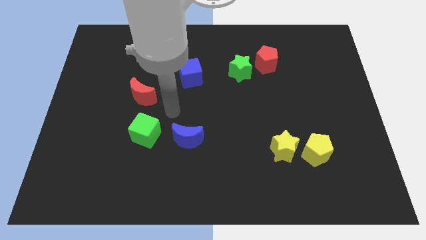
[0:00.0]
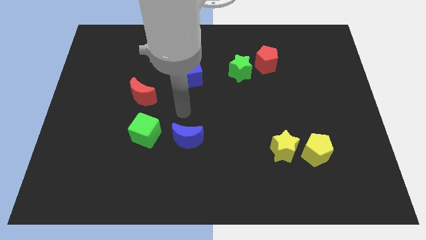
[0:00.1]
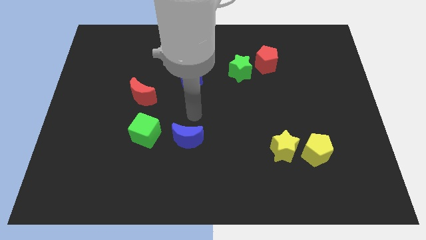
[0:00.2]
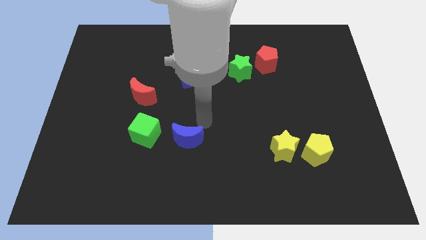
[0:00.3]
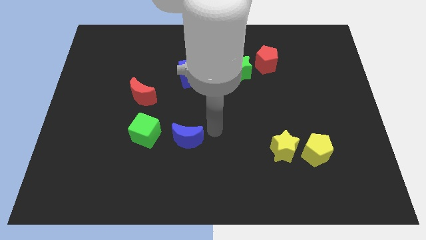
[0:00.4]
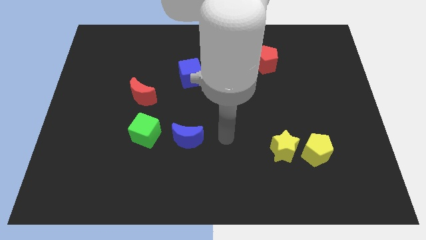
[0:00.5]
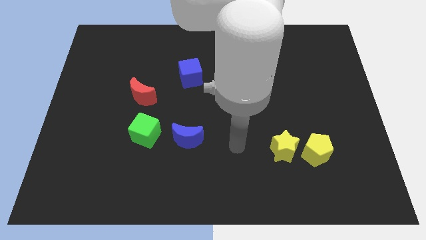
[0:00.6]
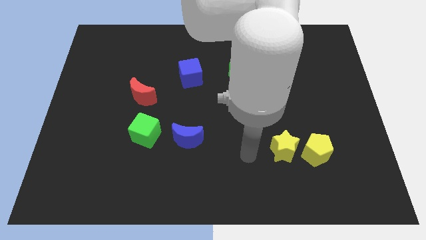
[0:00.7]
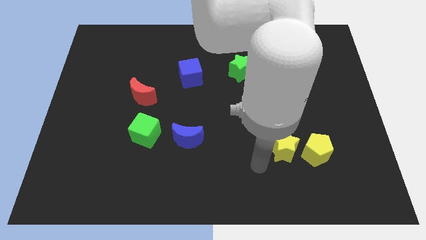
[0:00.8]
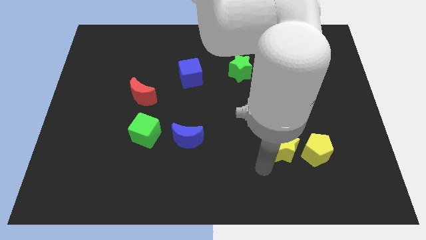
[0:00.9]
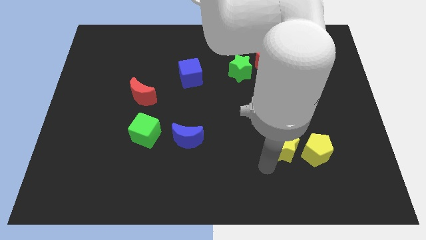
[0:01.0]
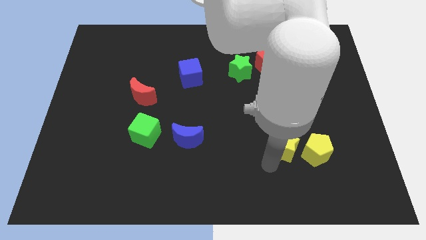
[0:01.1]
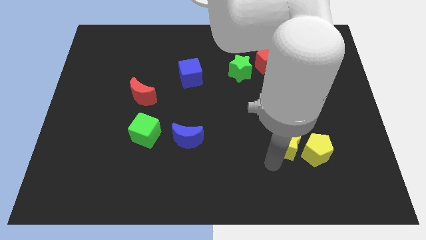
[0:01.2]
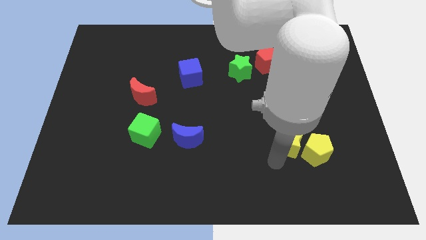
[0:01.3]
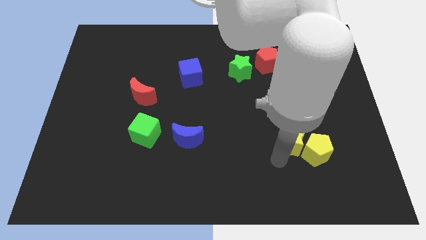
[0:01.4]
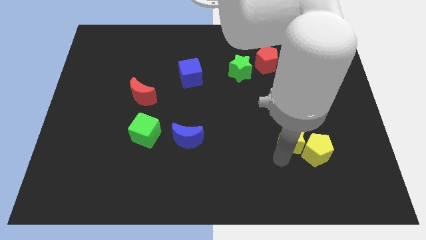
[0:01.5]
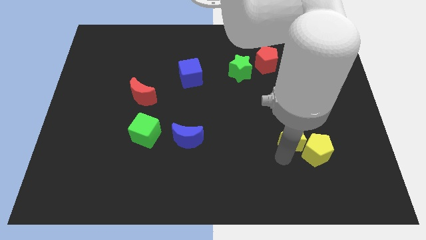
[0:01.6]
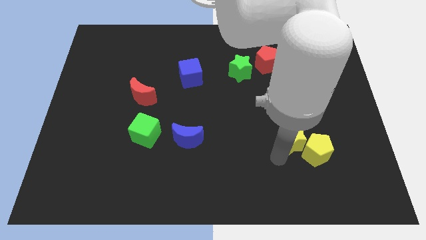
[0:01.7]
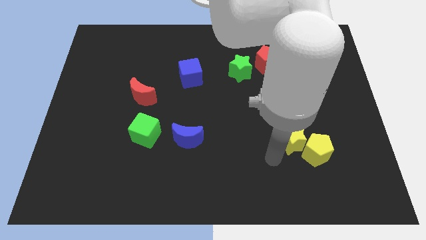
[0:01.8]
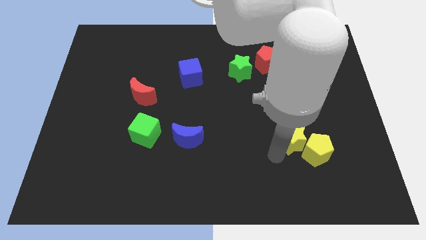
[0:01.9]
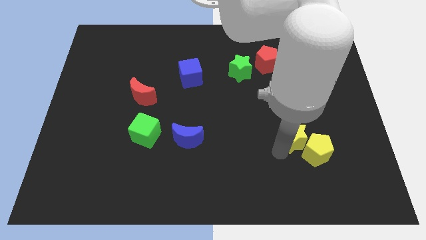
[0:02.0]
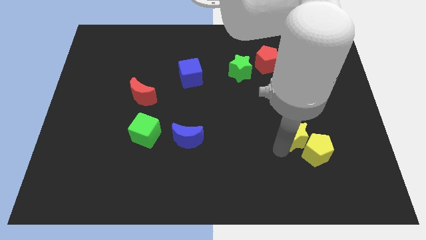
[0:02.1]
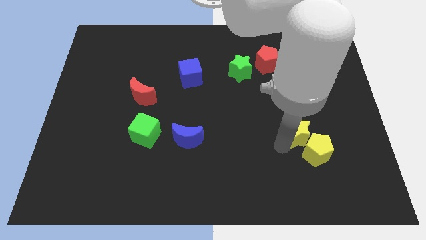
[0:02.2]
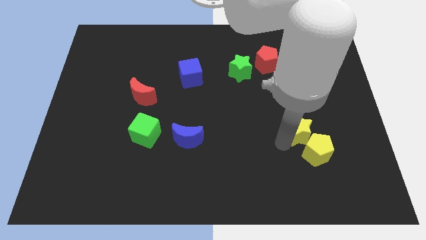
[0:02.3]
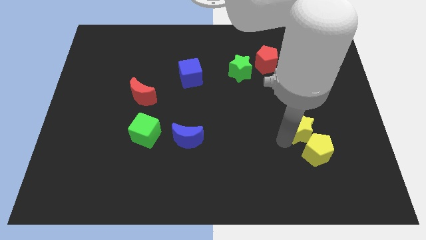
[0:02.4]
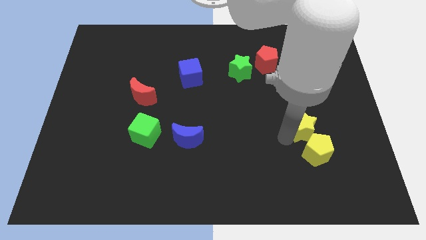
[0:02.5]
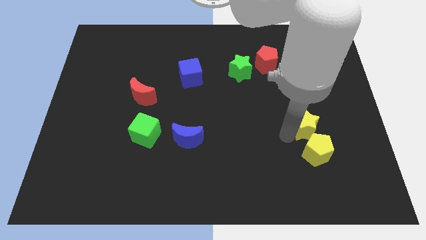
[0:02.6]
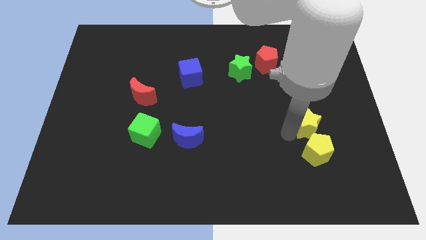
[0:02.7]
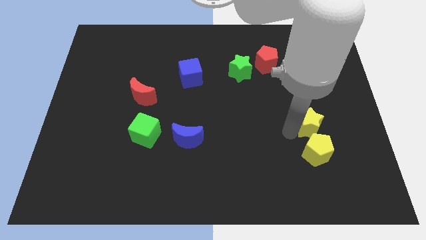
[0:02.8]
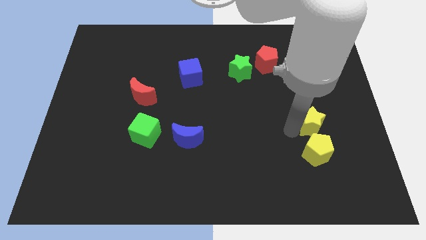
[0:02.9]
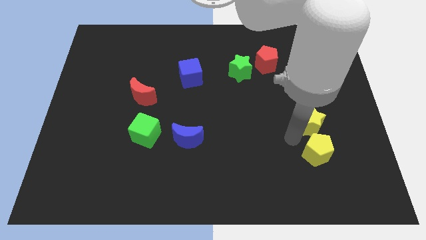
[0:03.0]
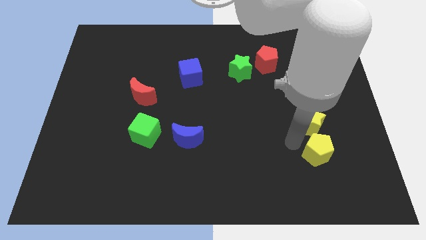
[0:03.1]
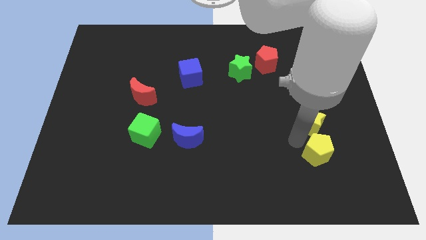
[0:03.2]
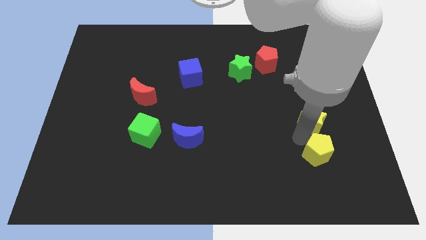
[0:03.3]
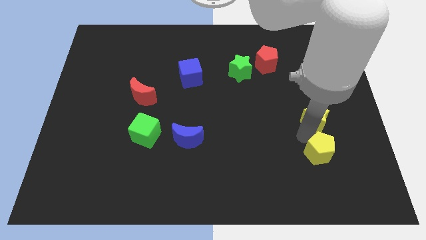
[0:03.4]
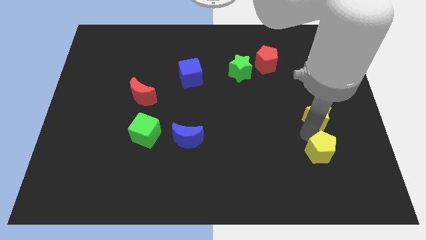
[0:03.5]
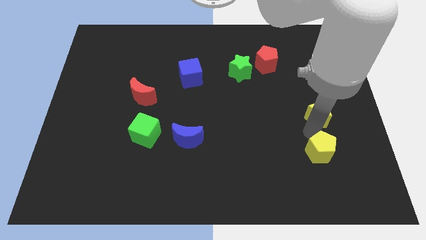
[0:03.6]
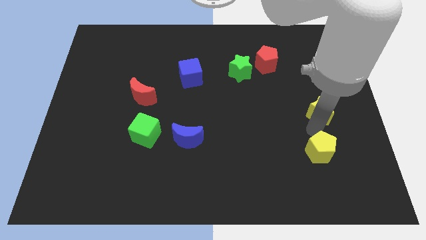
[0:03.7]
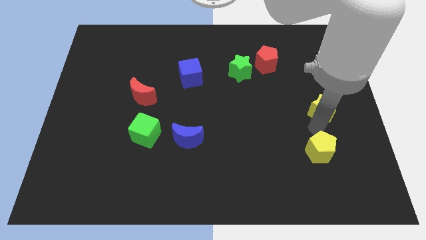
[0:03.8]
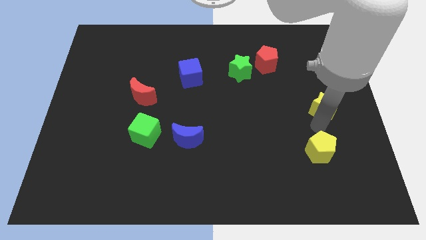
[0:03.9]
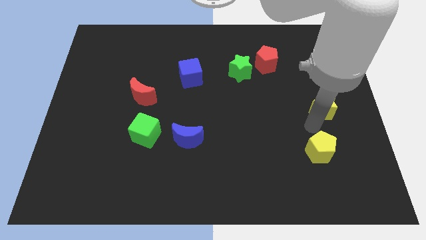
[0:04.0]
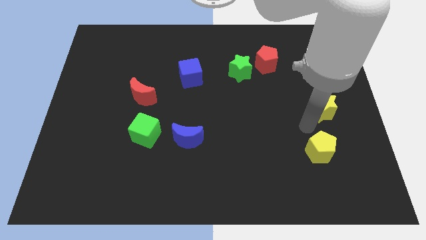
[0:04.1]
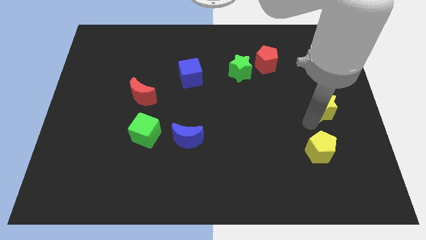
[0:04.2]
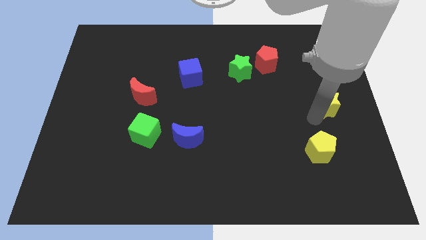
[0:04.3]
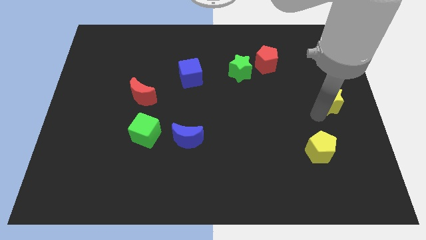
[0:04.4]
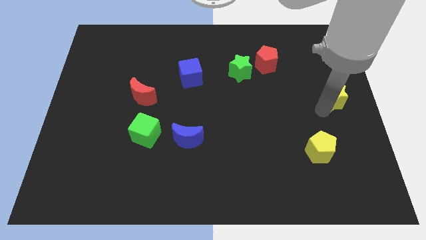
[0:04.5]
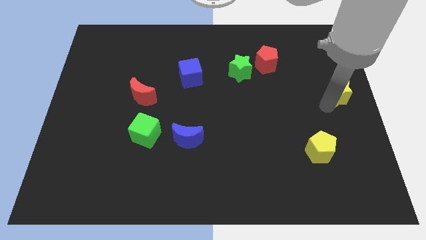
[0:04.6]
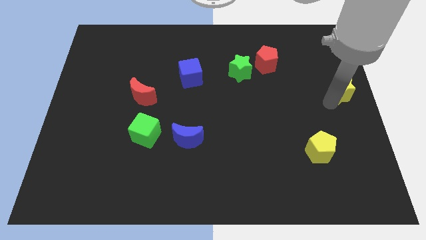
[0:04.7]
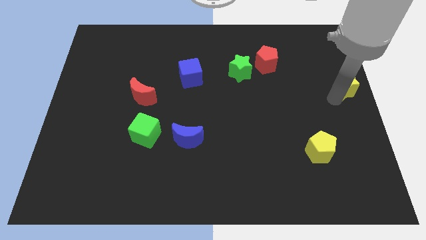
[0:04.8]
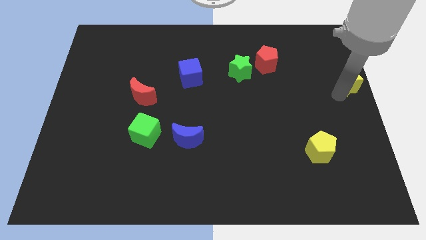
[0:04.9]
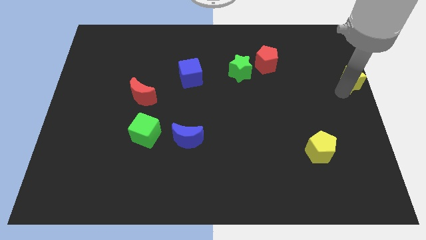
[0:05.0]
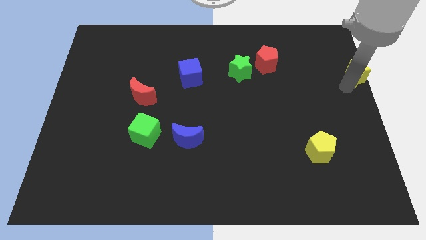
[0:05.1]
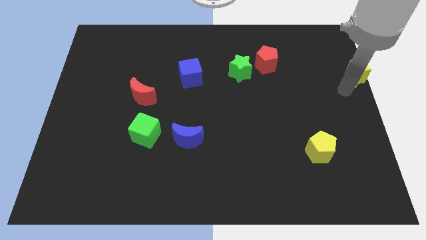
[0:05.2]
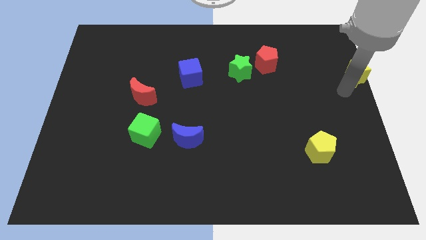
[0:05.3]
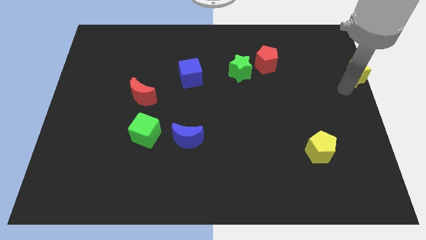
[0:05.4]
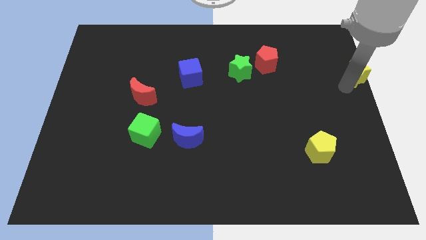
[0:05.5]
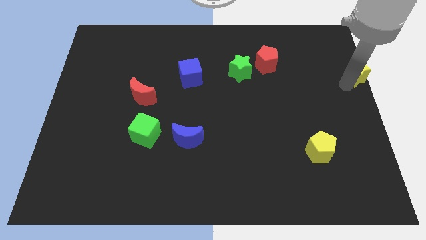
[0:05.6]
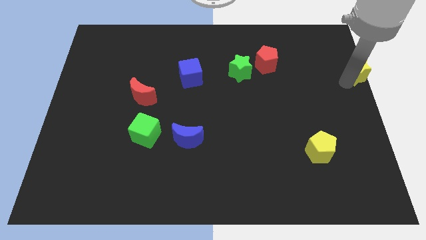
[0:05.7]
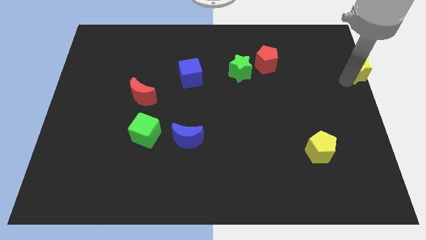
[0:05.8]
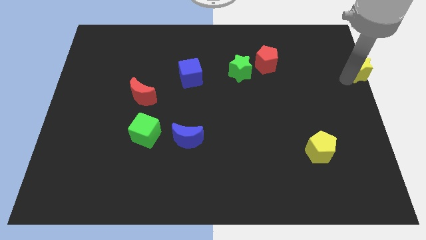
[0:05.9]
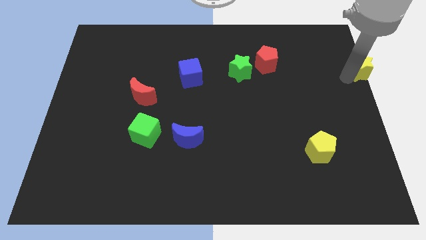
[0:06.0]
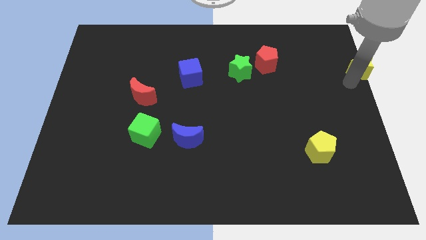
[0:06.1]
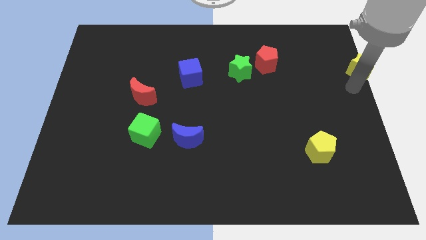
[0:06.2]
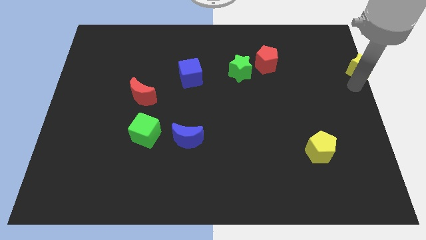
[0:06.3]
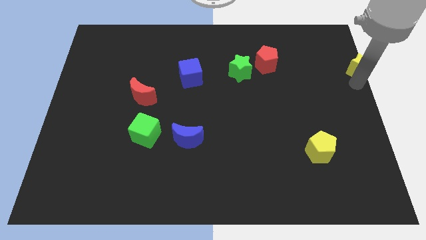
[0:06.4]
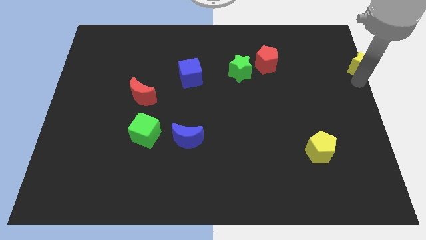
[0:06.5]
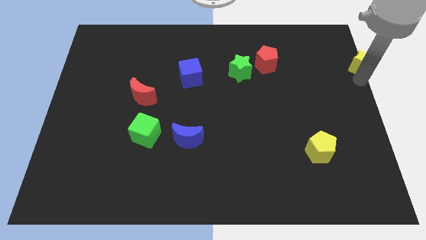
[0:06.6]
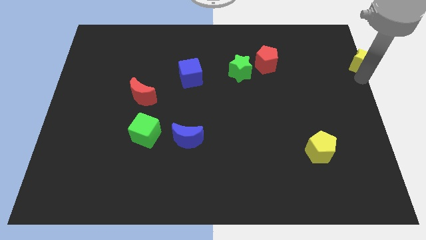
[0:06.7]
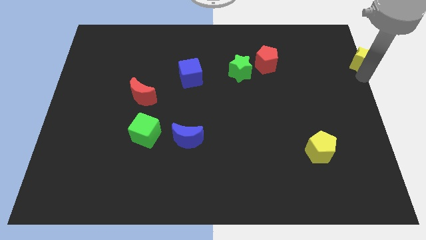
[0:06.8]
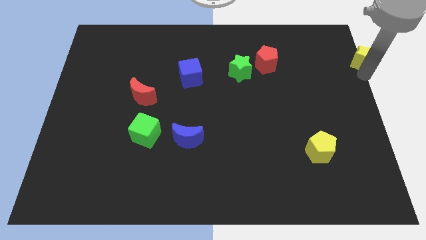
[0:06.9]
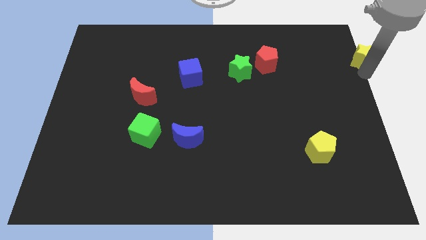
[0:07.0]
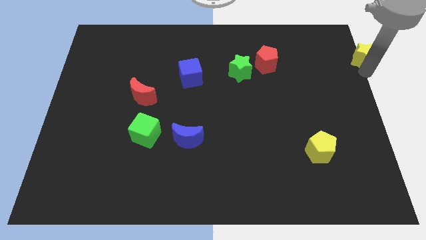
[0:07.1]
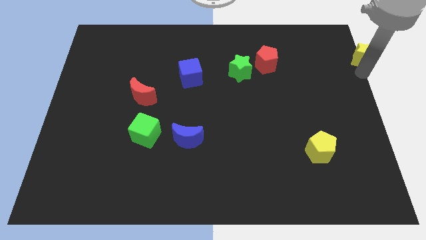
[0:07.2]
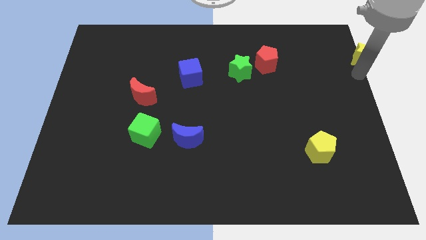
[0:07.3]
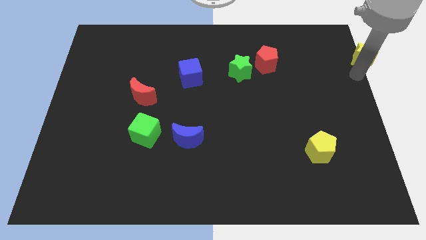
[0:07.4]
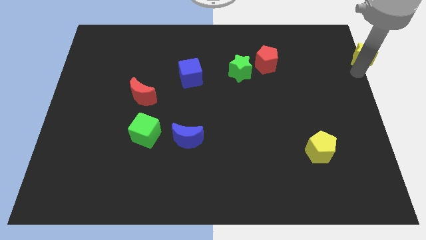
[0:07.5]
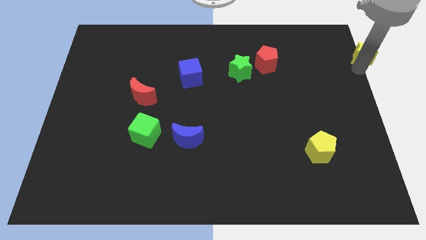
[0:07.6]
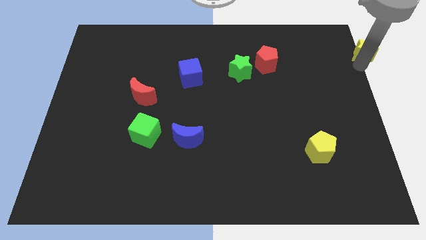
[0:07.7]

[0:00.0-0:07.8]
move the yellow star to the top right
